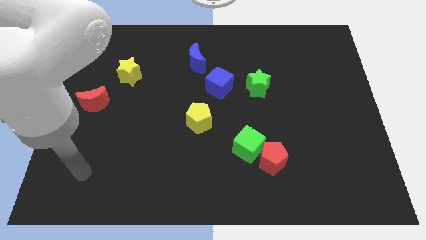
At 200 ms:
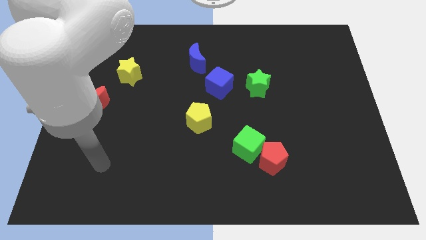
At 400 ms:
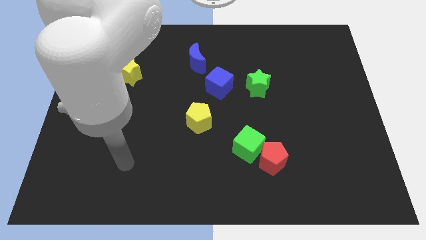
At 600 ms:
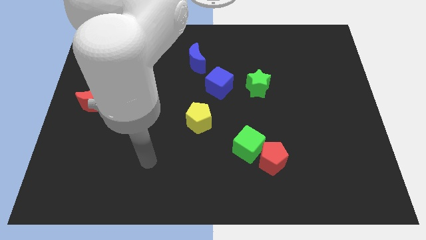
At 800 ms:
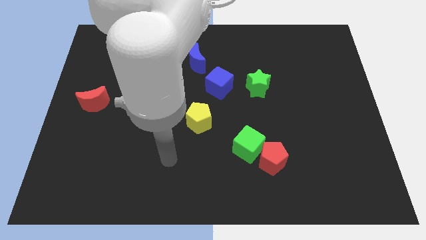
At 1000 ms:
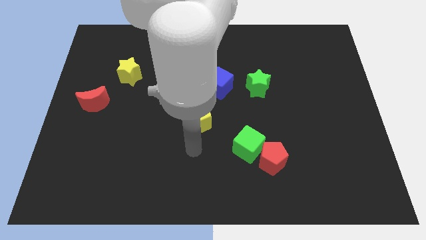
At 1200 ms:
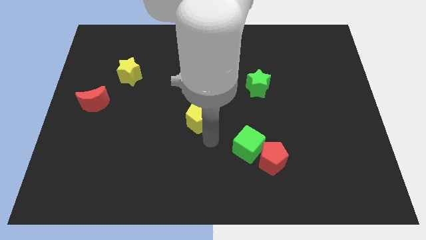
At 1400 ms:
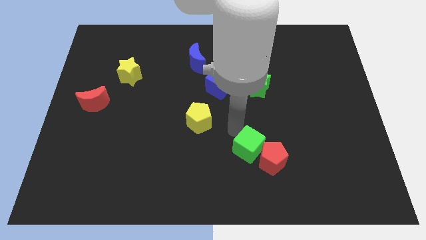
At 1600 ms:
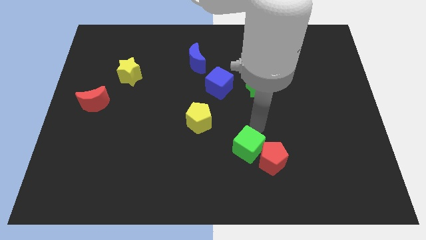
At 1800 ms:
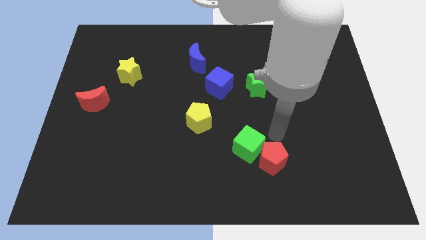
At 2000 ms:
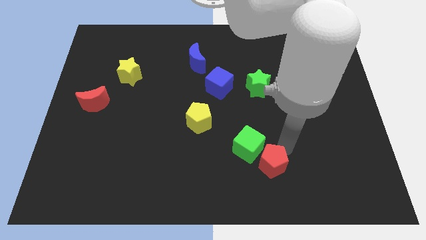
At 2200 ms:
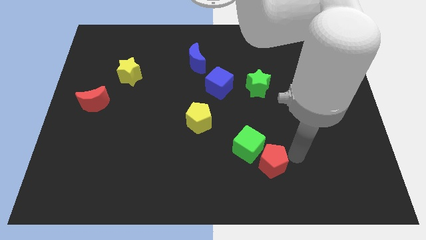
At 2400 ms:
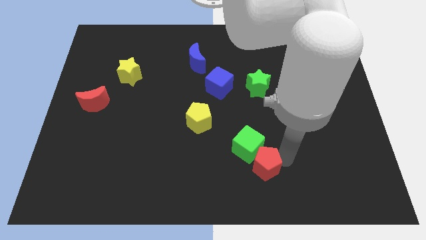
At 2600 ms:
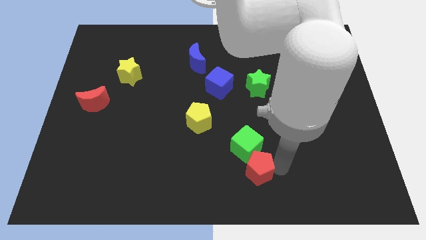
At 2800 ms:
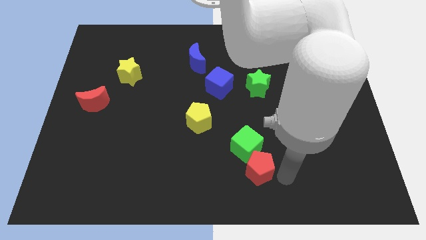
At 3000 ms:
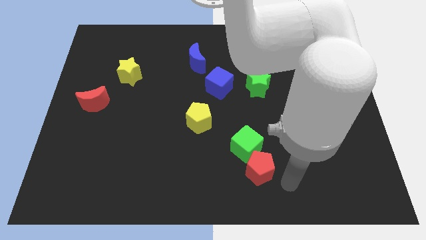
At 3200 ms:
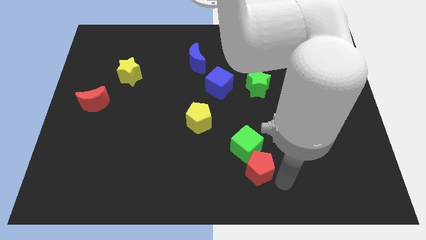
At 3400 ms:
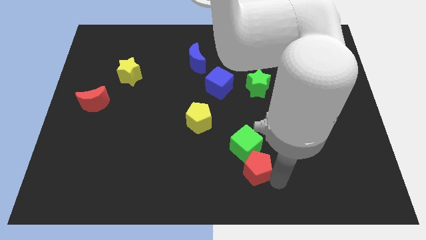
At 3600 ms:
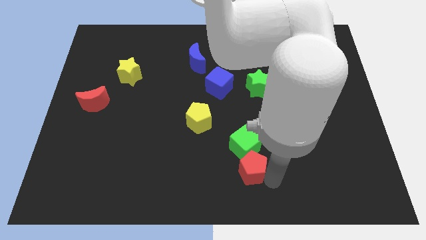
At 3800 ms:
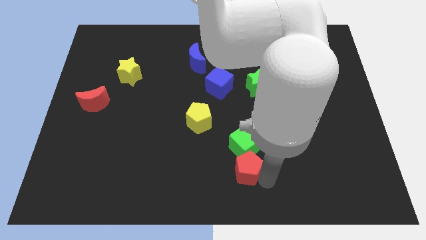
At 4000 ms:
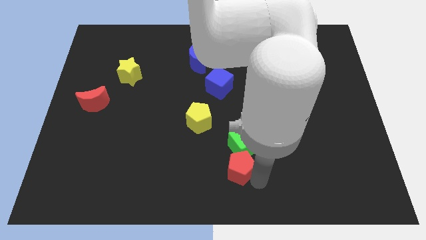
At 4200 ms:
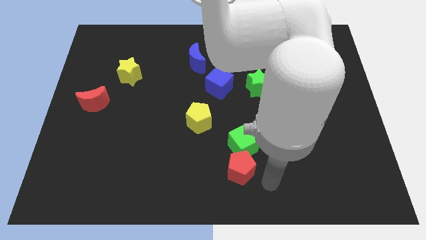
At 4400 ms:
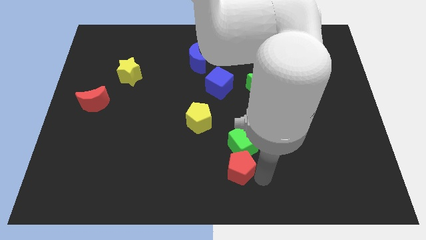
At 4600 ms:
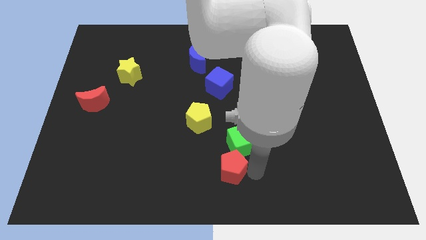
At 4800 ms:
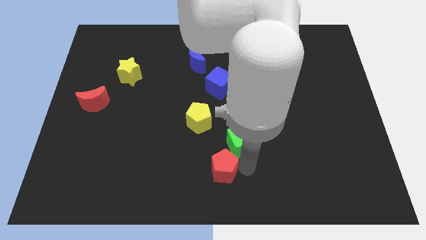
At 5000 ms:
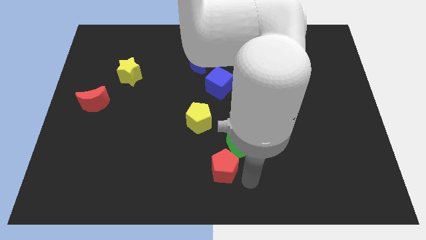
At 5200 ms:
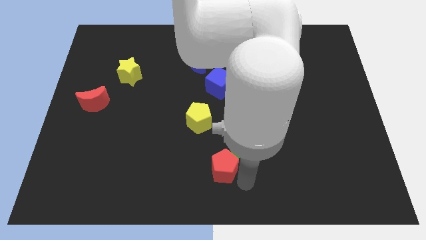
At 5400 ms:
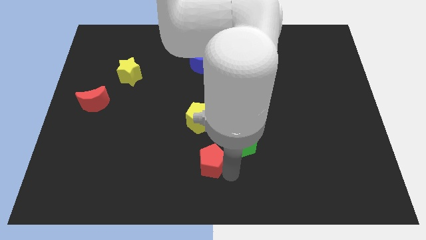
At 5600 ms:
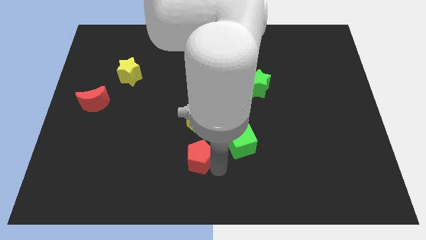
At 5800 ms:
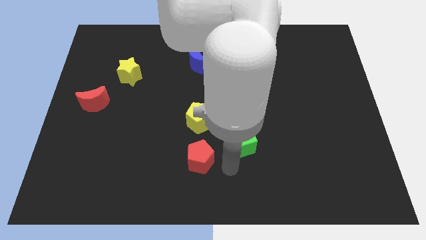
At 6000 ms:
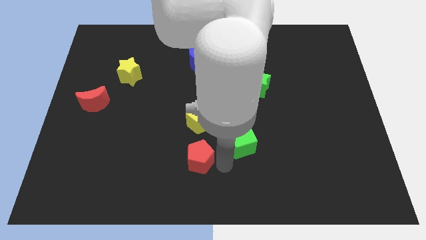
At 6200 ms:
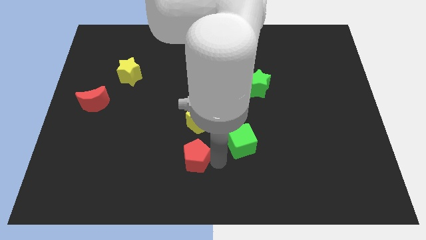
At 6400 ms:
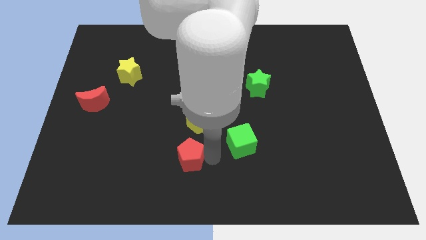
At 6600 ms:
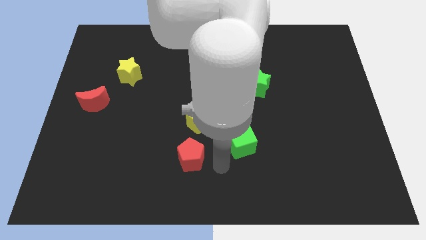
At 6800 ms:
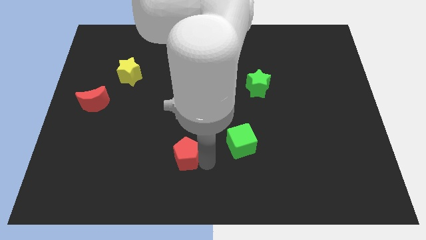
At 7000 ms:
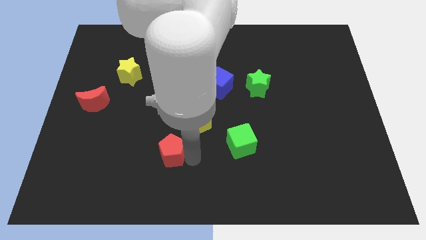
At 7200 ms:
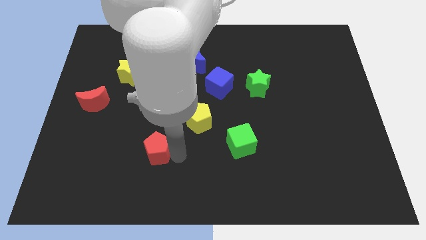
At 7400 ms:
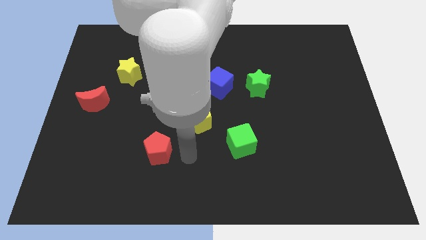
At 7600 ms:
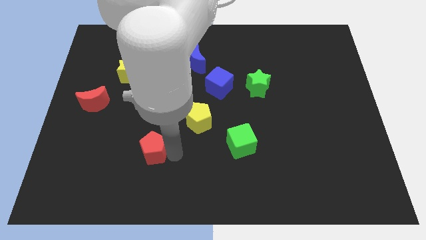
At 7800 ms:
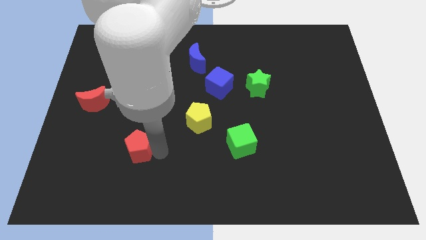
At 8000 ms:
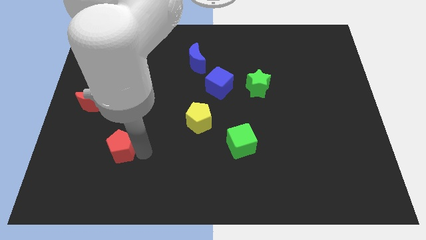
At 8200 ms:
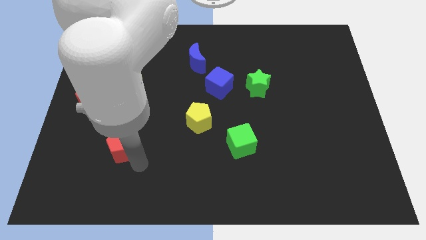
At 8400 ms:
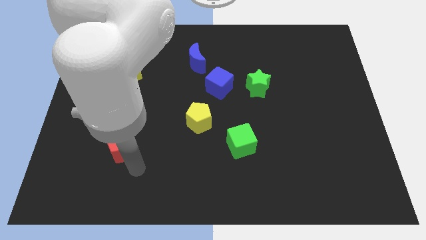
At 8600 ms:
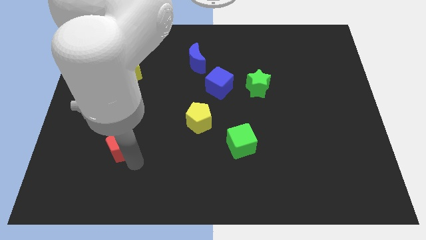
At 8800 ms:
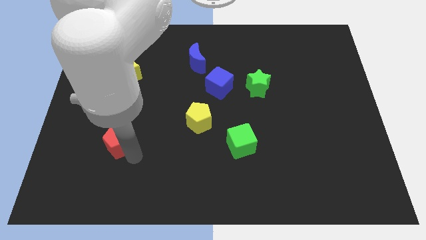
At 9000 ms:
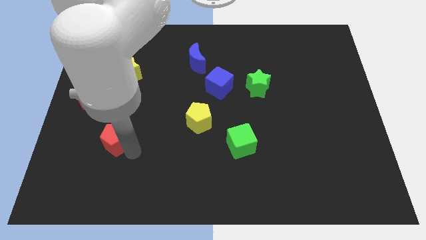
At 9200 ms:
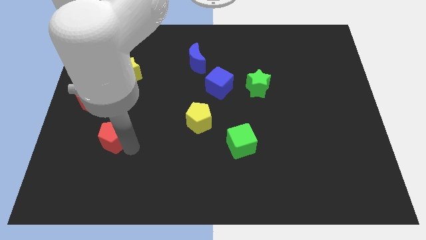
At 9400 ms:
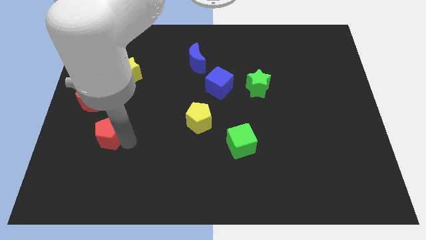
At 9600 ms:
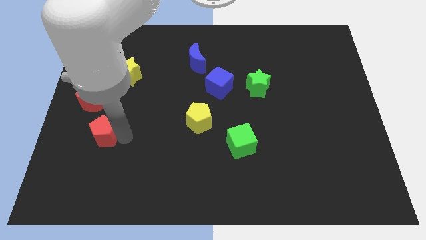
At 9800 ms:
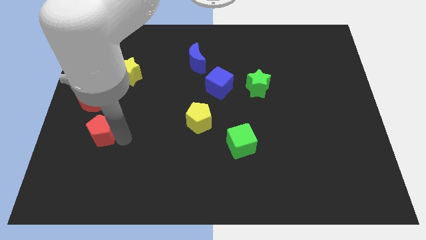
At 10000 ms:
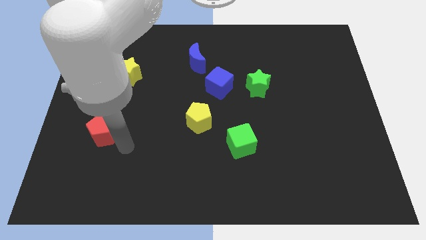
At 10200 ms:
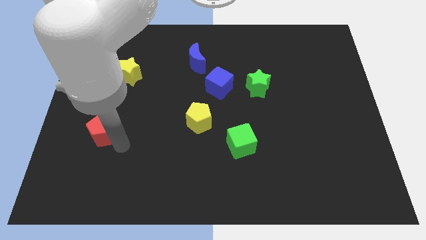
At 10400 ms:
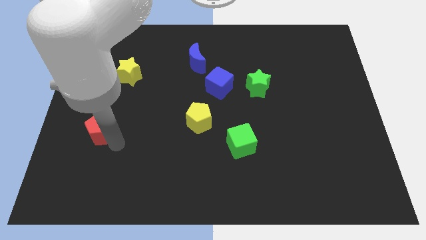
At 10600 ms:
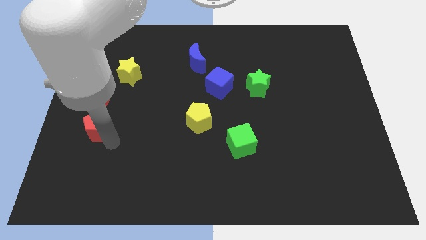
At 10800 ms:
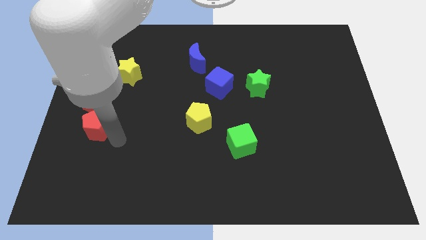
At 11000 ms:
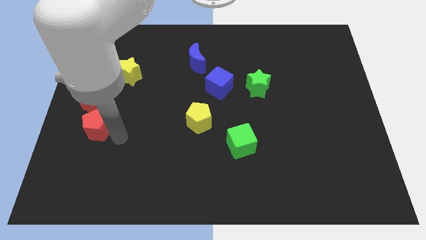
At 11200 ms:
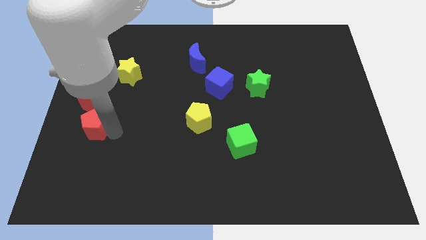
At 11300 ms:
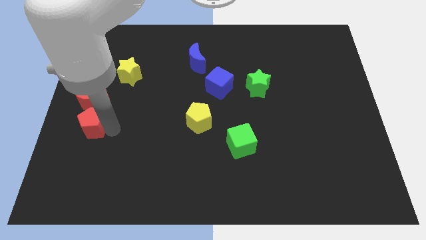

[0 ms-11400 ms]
push the red pentagon to the left side of the board
